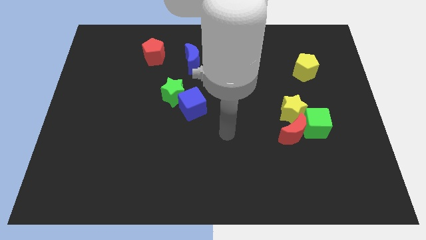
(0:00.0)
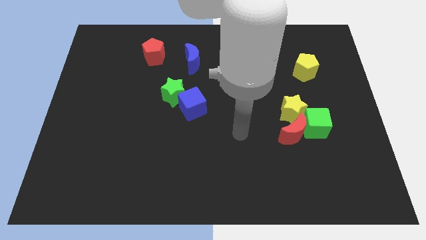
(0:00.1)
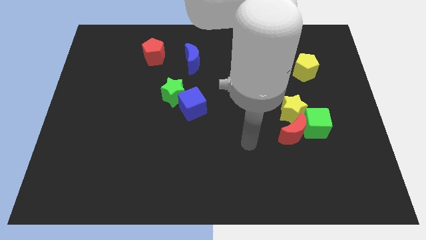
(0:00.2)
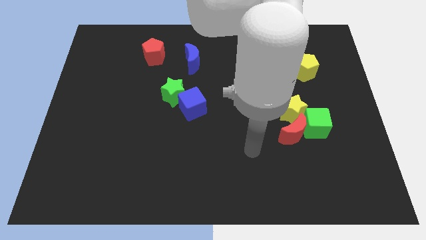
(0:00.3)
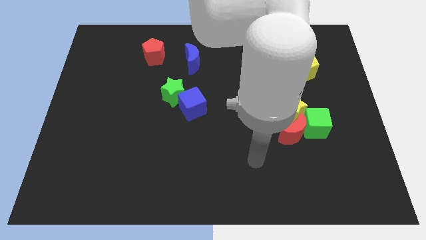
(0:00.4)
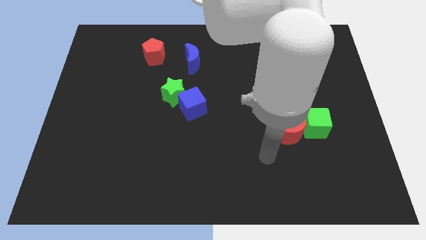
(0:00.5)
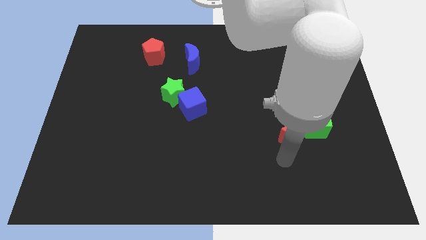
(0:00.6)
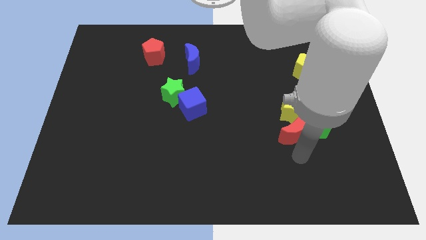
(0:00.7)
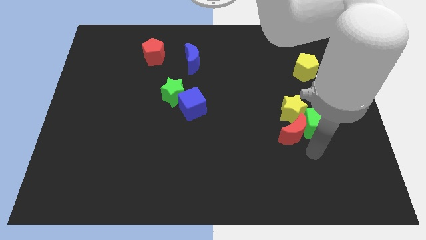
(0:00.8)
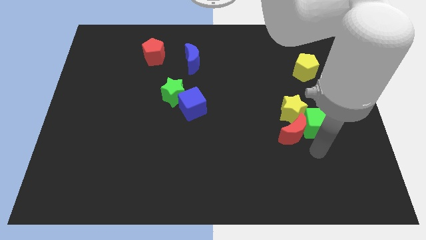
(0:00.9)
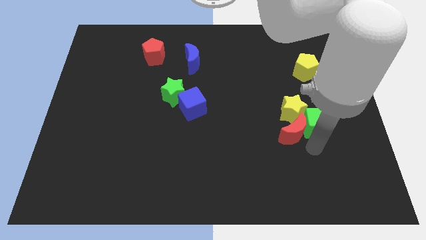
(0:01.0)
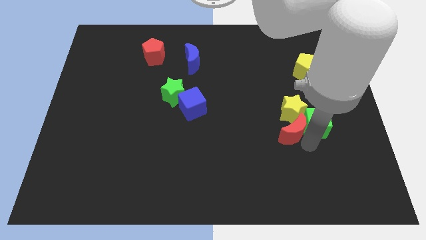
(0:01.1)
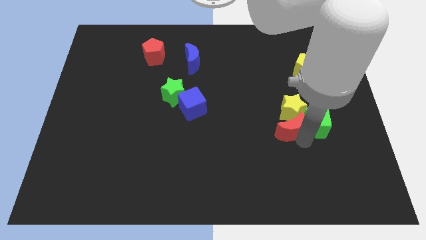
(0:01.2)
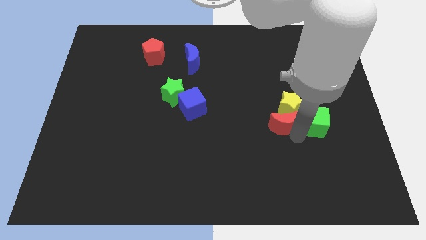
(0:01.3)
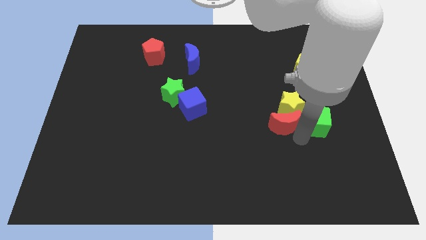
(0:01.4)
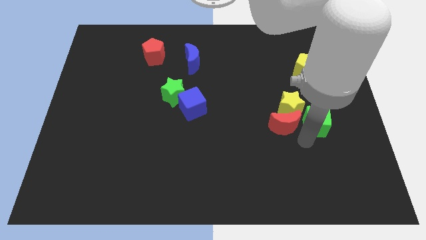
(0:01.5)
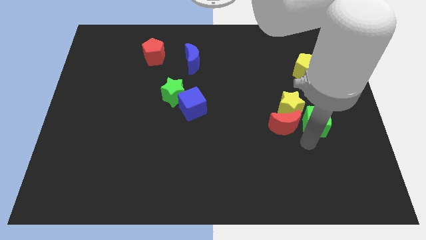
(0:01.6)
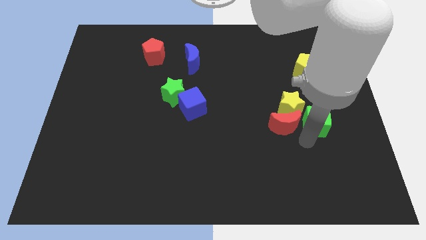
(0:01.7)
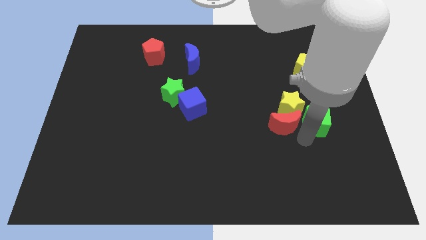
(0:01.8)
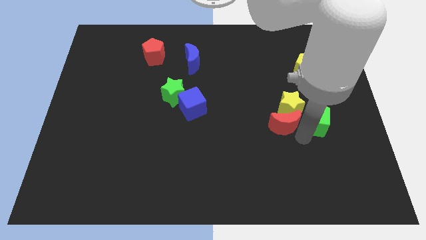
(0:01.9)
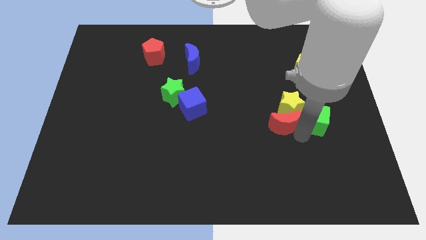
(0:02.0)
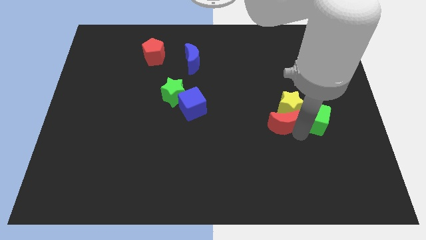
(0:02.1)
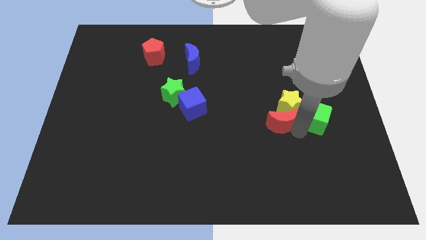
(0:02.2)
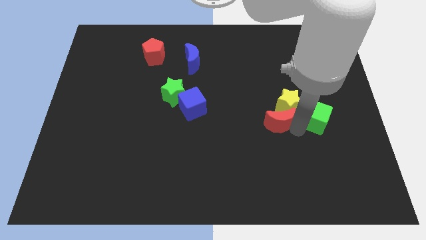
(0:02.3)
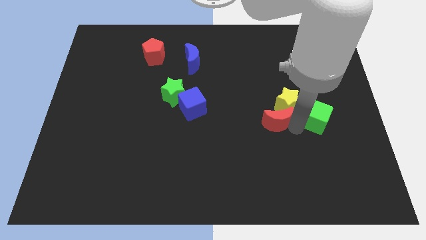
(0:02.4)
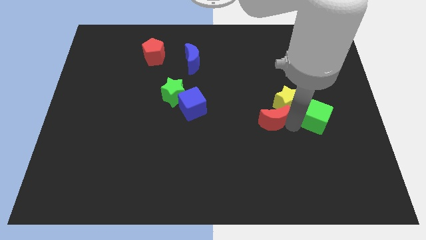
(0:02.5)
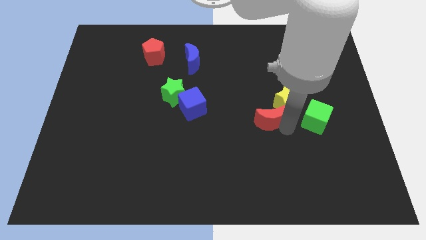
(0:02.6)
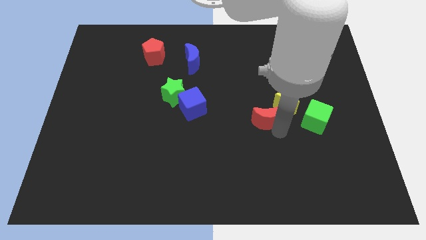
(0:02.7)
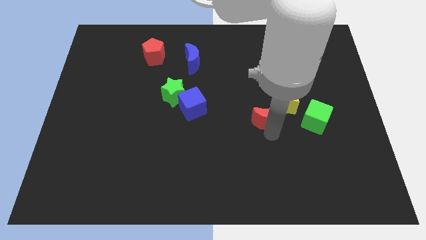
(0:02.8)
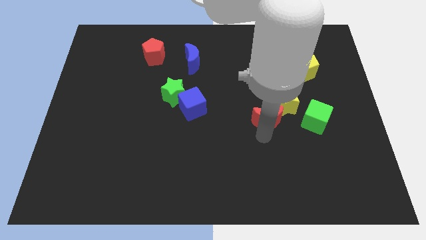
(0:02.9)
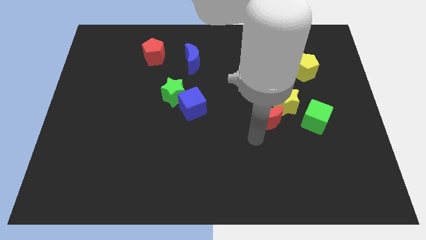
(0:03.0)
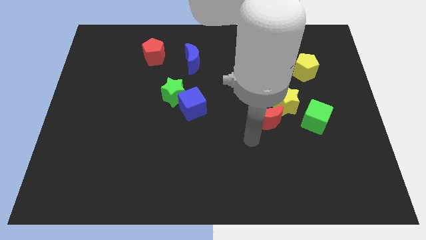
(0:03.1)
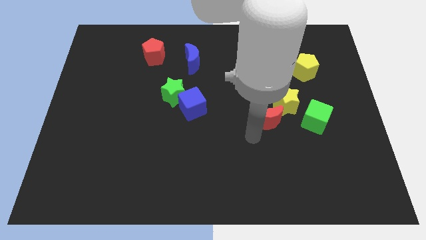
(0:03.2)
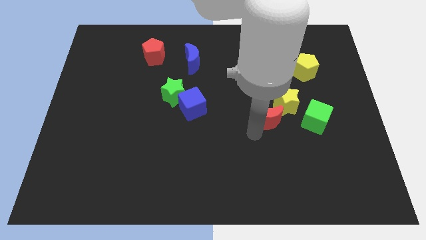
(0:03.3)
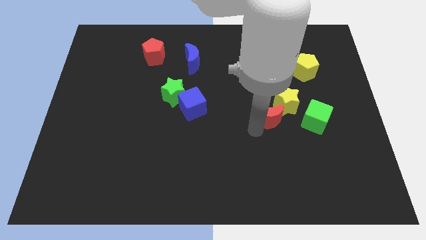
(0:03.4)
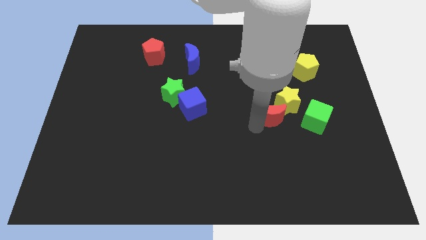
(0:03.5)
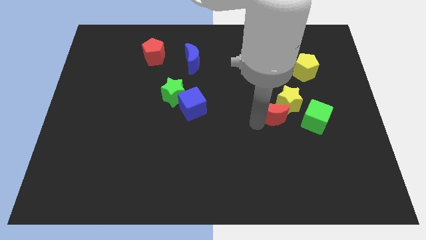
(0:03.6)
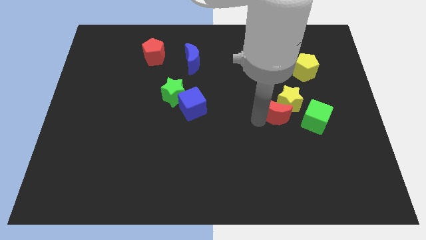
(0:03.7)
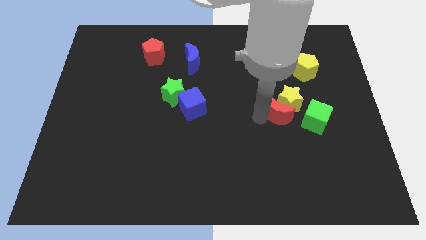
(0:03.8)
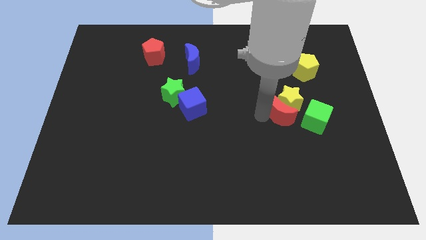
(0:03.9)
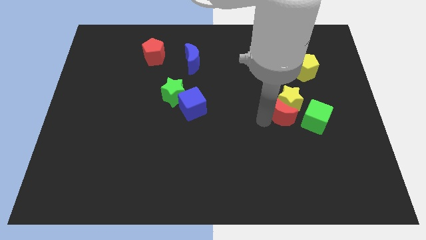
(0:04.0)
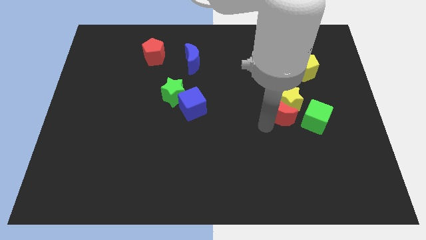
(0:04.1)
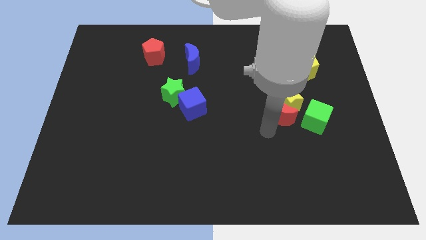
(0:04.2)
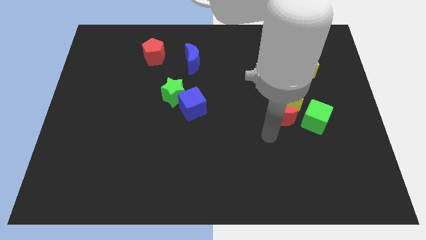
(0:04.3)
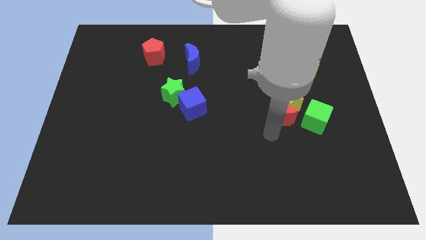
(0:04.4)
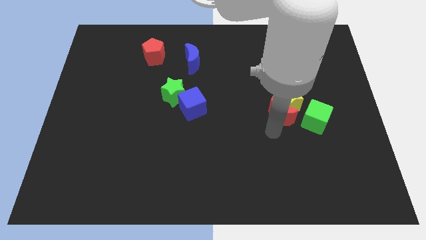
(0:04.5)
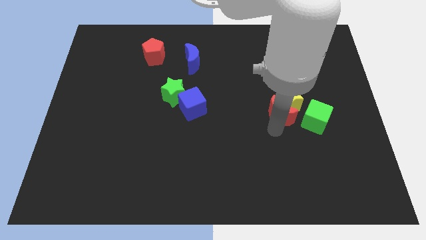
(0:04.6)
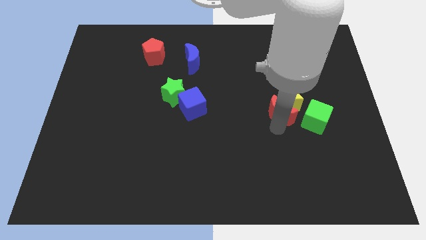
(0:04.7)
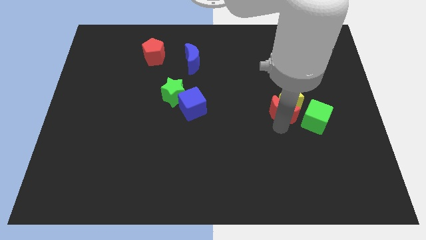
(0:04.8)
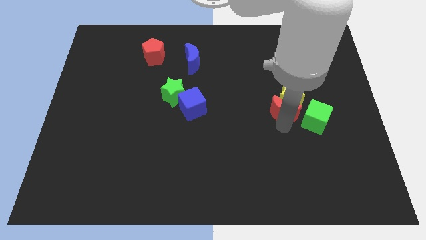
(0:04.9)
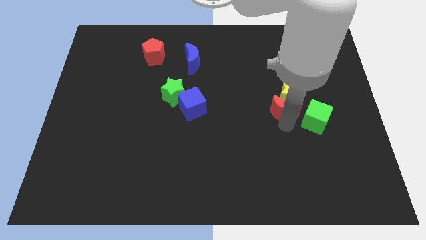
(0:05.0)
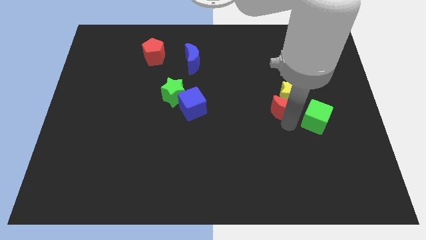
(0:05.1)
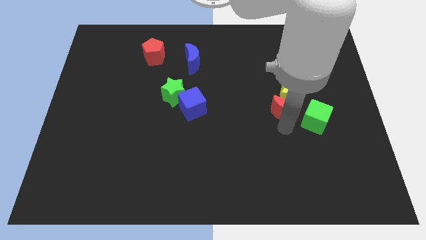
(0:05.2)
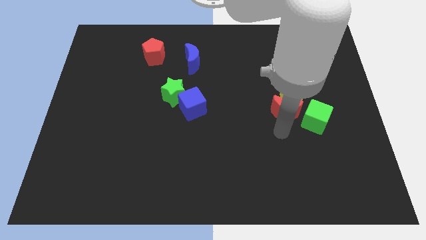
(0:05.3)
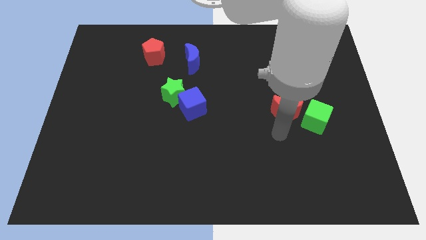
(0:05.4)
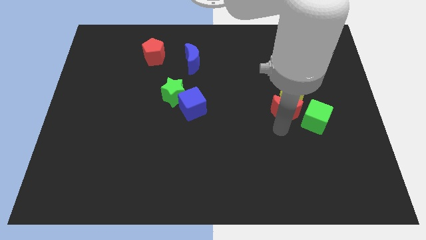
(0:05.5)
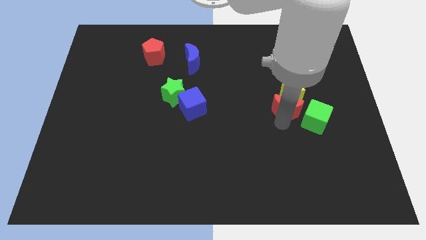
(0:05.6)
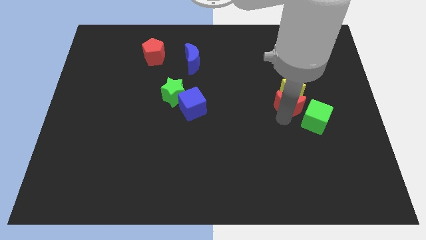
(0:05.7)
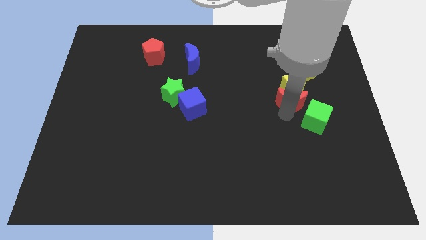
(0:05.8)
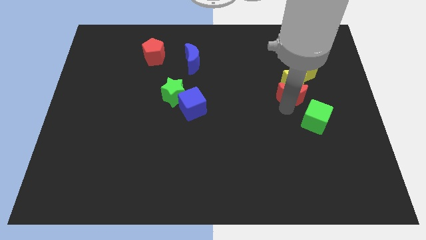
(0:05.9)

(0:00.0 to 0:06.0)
put the red moon above the green cube
